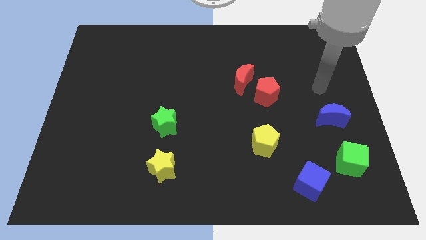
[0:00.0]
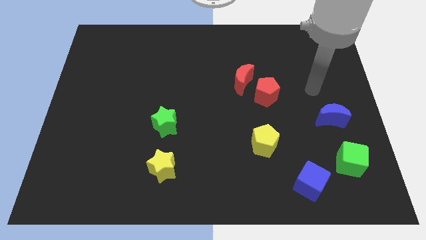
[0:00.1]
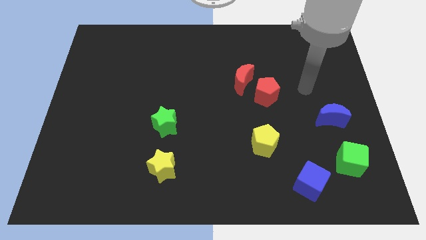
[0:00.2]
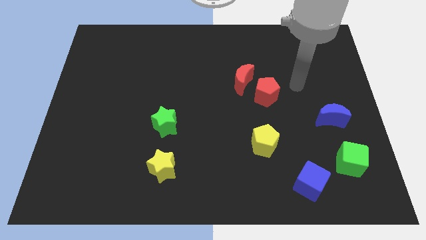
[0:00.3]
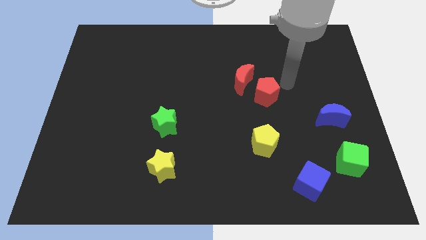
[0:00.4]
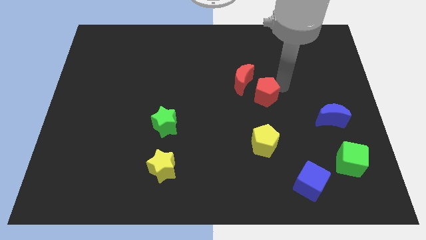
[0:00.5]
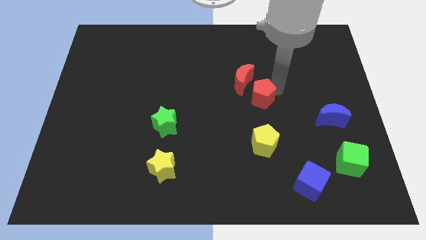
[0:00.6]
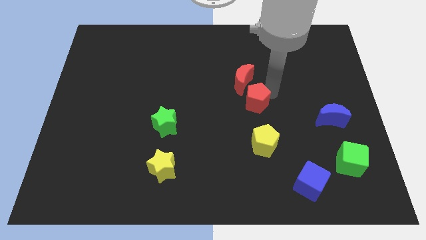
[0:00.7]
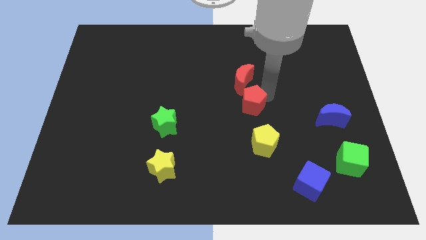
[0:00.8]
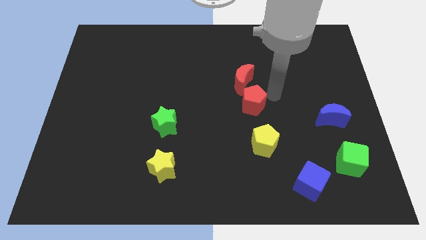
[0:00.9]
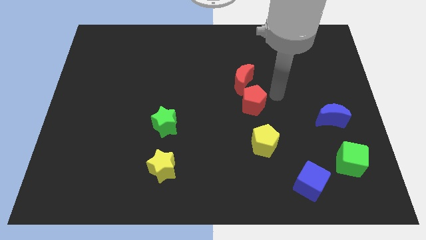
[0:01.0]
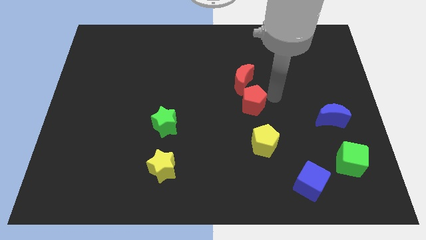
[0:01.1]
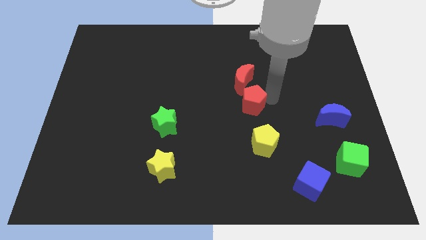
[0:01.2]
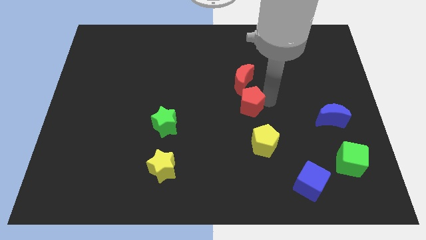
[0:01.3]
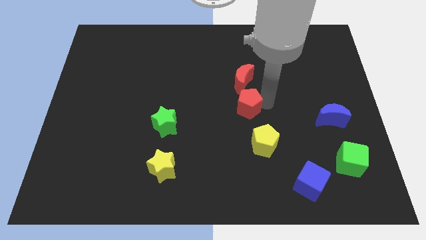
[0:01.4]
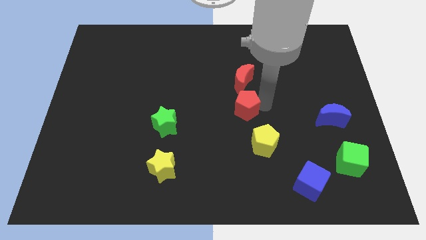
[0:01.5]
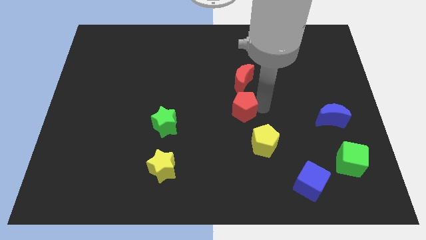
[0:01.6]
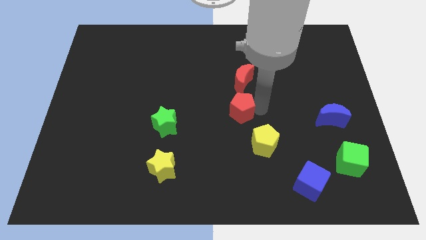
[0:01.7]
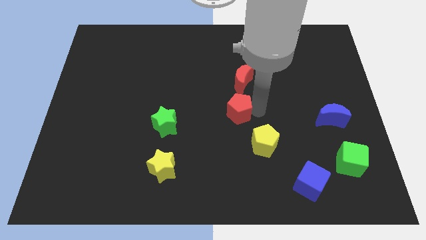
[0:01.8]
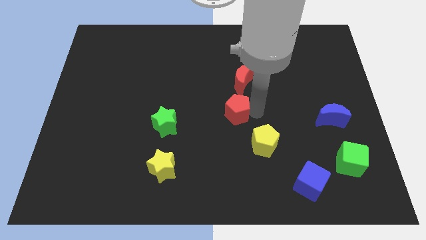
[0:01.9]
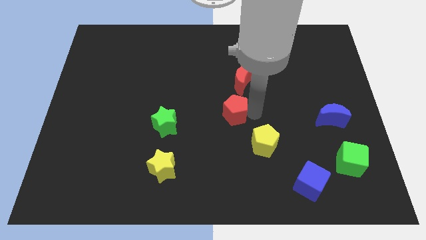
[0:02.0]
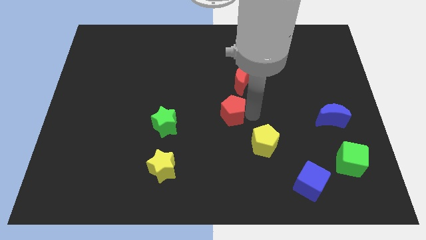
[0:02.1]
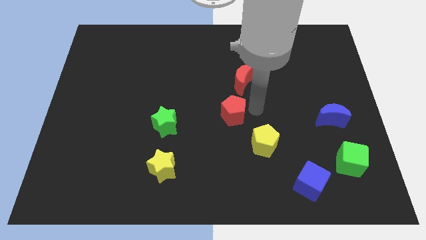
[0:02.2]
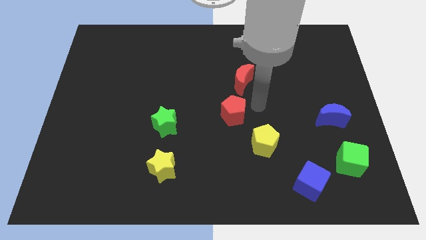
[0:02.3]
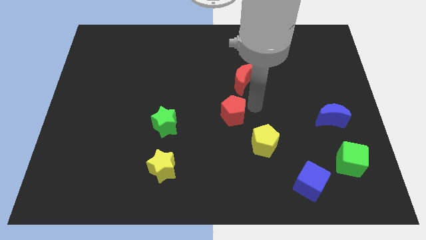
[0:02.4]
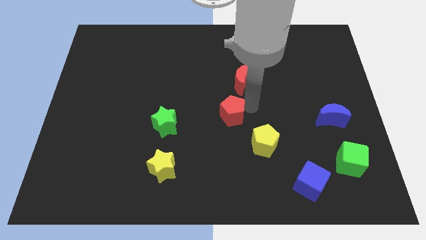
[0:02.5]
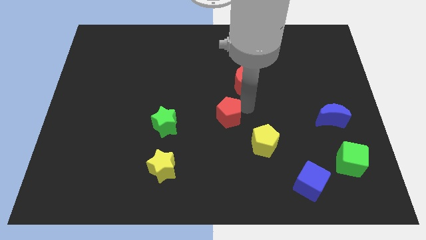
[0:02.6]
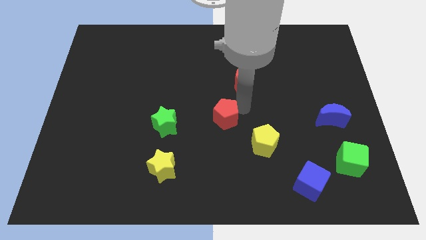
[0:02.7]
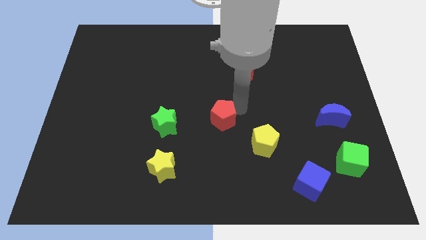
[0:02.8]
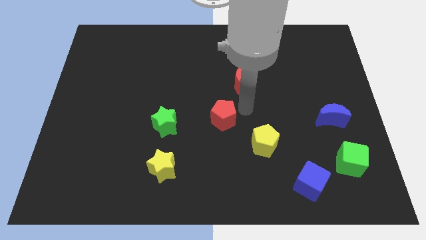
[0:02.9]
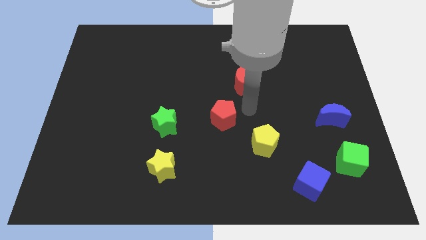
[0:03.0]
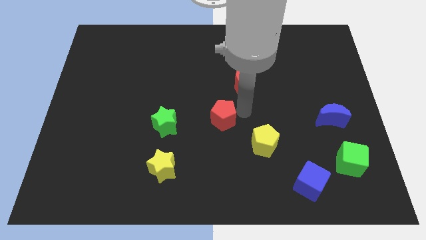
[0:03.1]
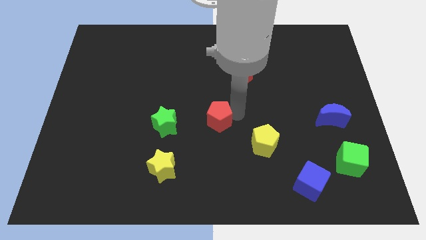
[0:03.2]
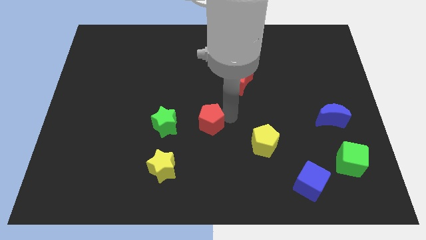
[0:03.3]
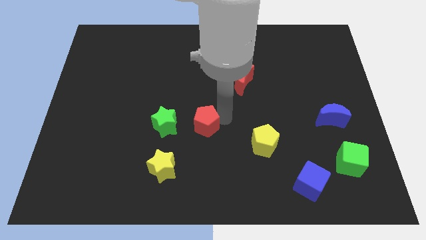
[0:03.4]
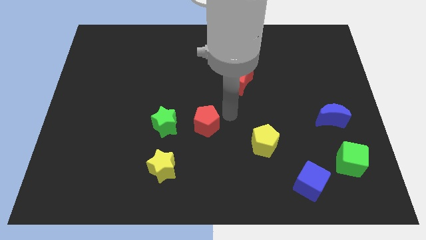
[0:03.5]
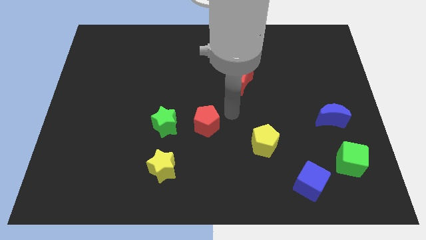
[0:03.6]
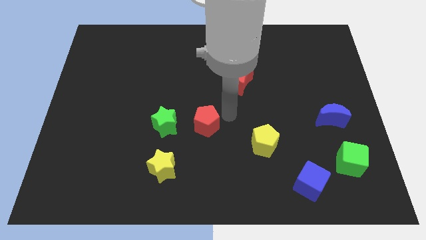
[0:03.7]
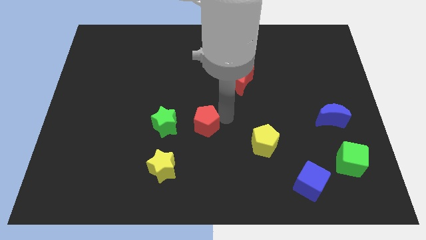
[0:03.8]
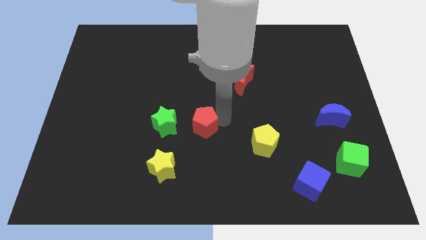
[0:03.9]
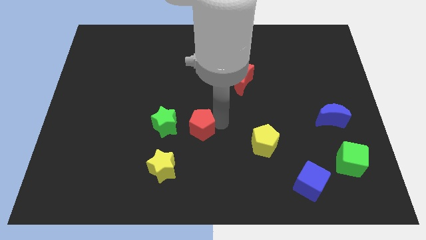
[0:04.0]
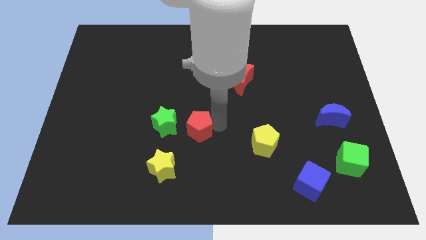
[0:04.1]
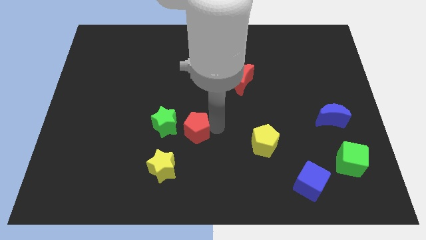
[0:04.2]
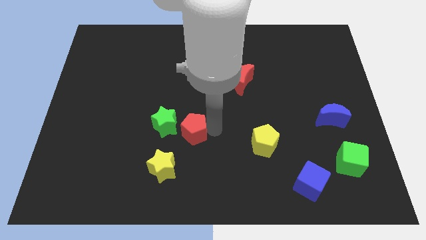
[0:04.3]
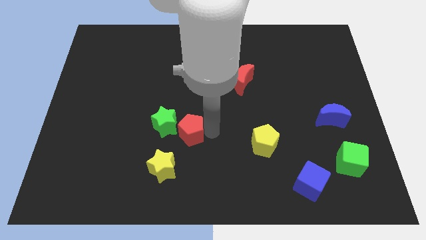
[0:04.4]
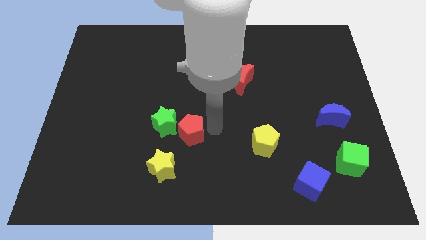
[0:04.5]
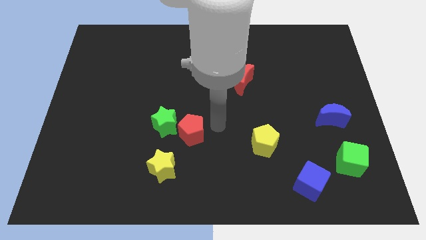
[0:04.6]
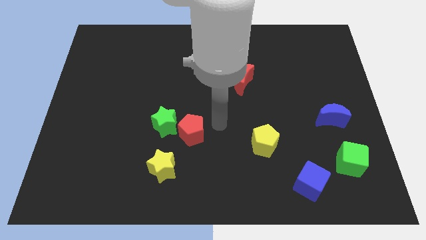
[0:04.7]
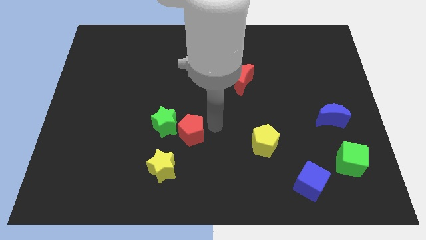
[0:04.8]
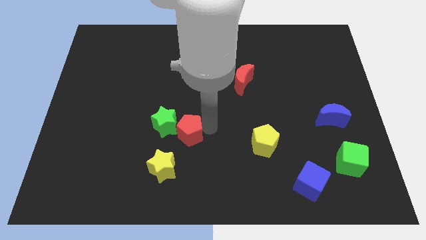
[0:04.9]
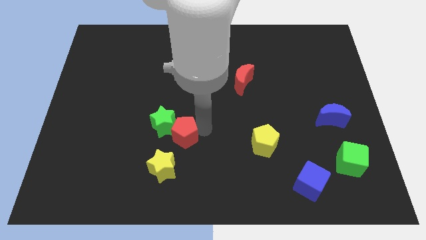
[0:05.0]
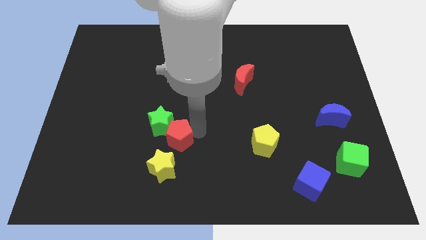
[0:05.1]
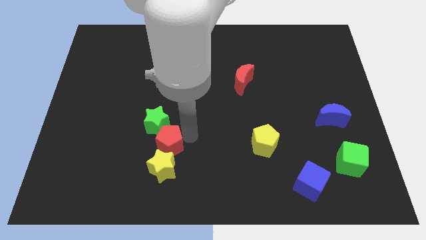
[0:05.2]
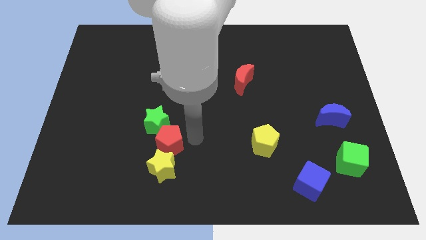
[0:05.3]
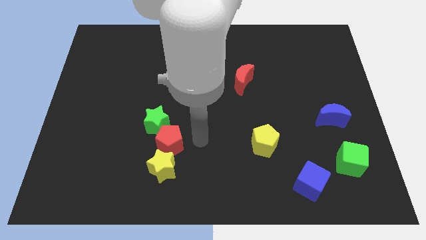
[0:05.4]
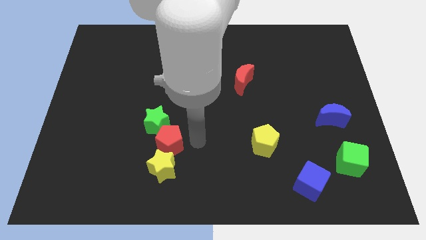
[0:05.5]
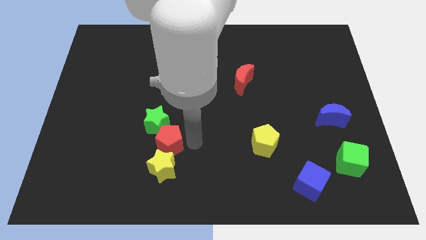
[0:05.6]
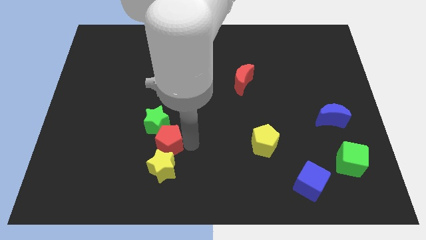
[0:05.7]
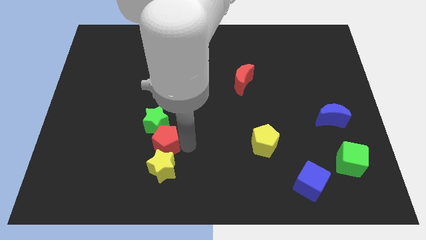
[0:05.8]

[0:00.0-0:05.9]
move the red pentagon diagonally up and to the left of the yellow star
